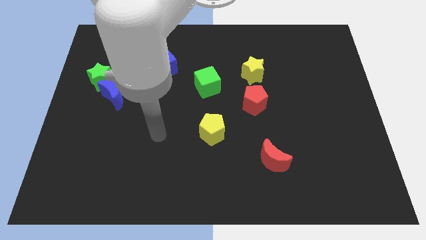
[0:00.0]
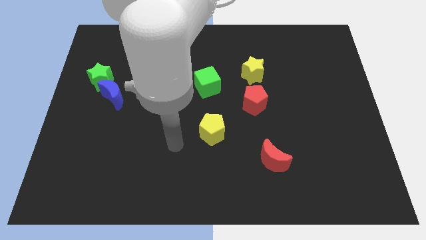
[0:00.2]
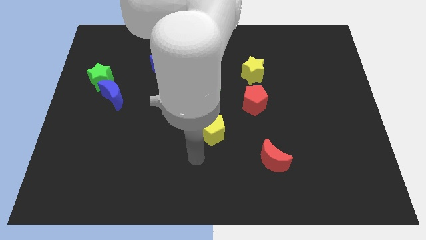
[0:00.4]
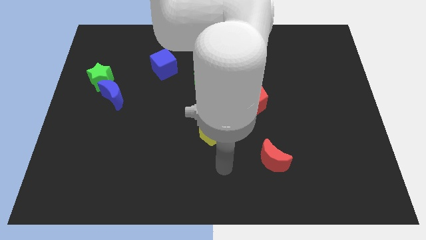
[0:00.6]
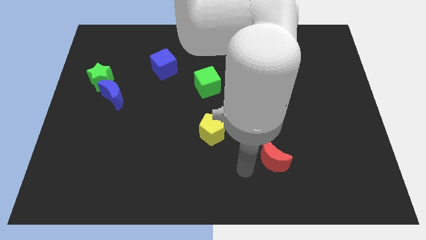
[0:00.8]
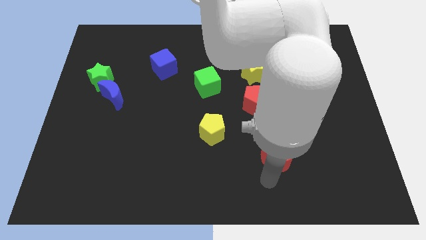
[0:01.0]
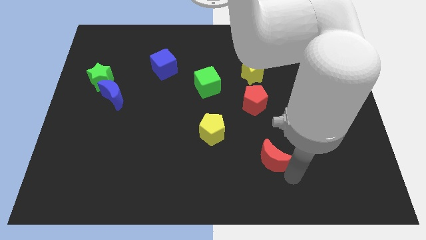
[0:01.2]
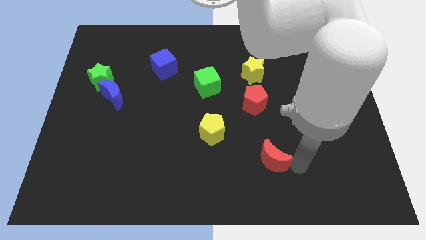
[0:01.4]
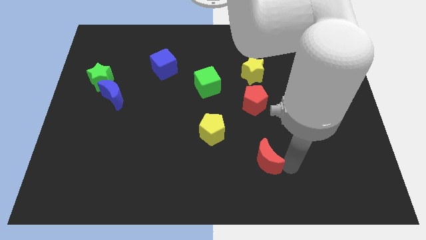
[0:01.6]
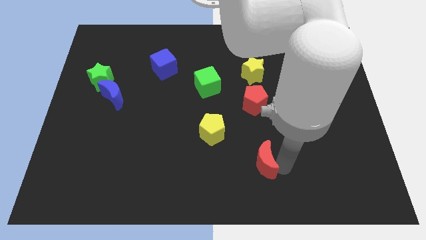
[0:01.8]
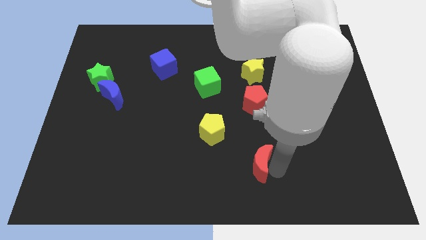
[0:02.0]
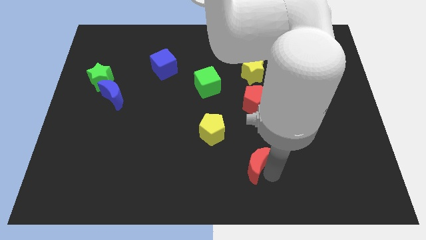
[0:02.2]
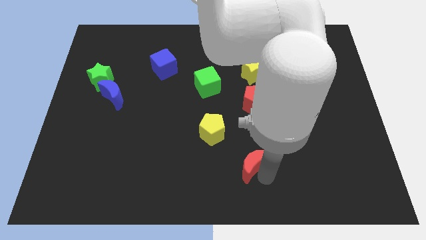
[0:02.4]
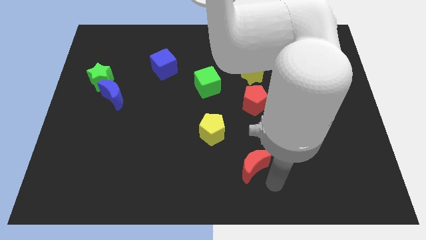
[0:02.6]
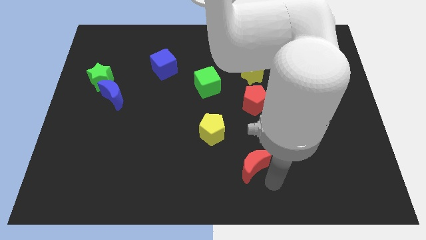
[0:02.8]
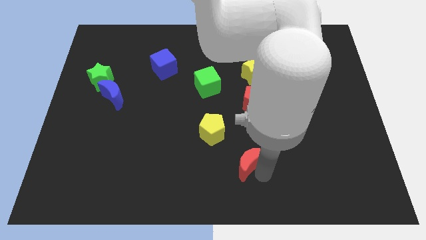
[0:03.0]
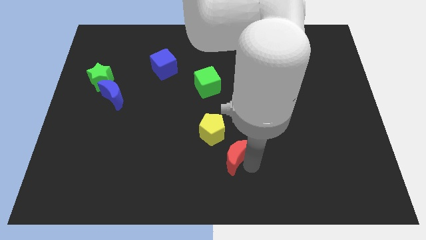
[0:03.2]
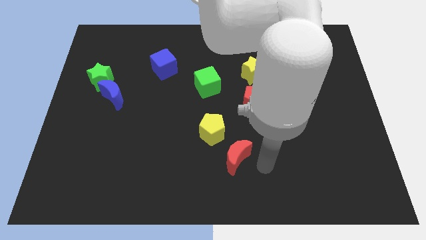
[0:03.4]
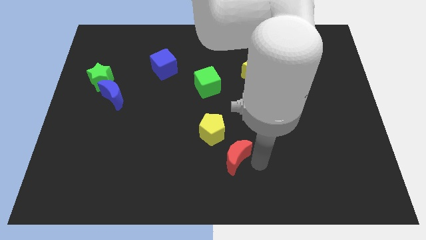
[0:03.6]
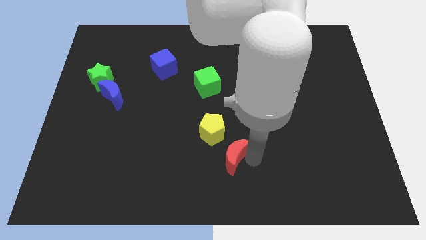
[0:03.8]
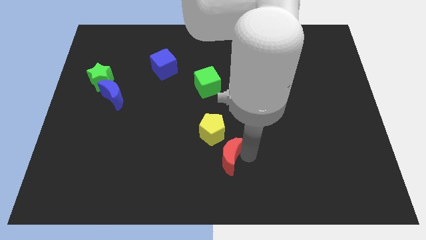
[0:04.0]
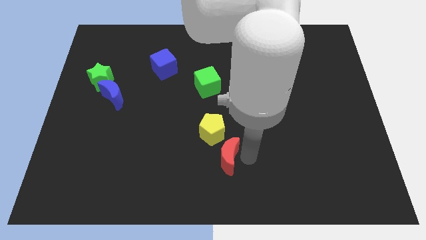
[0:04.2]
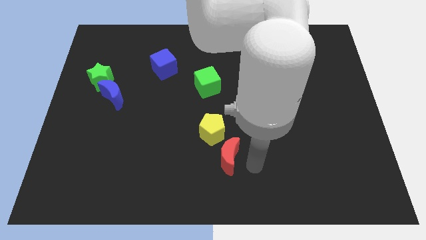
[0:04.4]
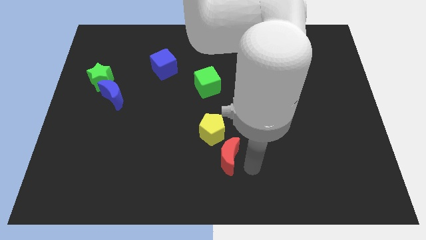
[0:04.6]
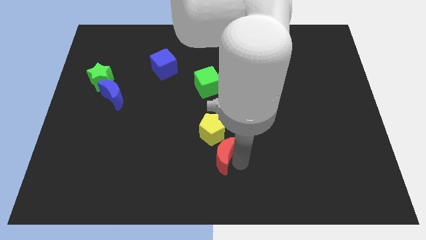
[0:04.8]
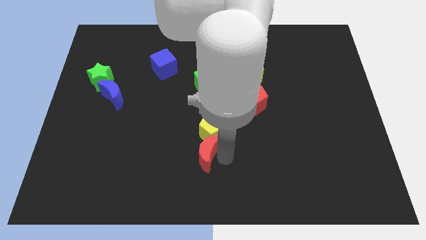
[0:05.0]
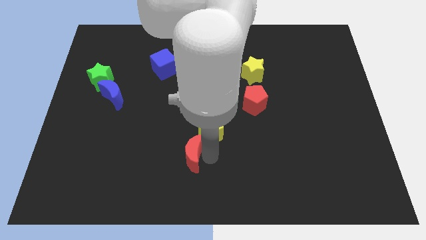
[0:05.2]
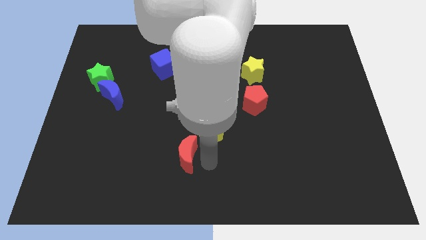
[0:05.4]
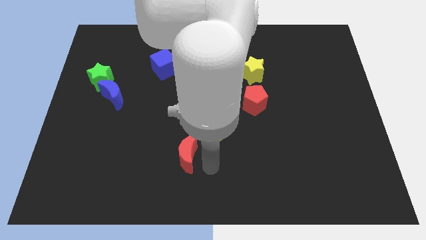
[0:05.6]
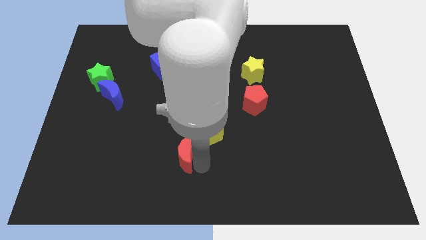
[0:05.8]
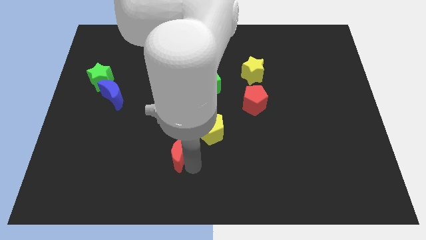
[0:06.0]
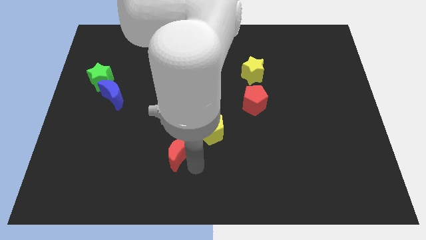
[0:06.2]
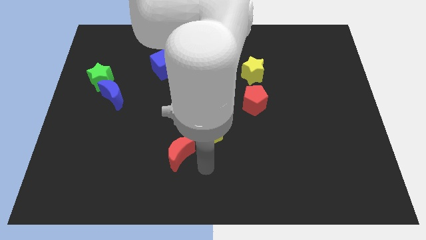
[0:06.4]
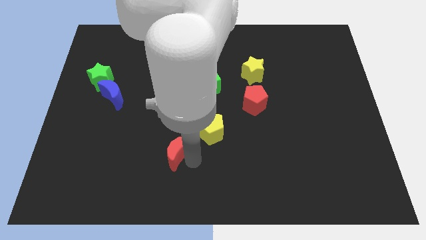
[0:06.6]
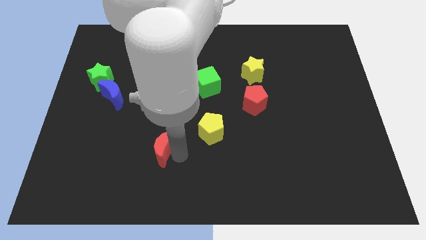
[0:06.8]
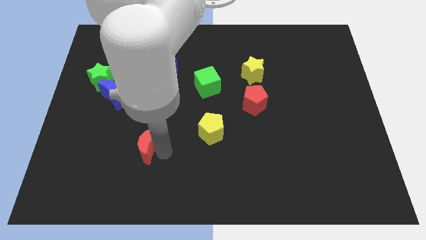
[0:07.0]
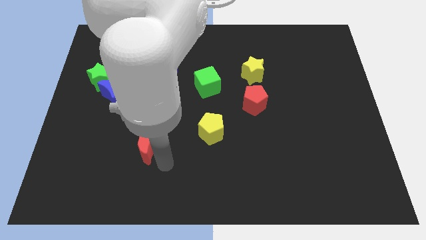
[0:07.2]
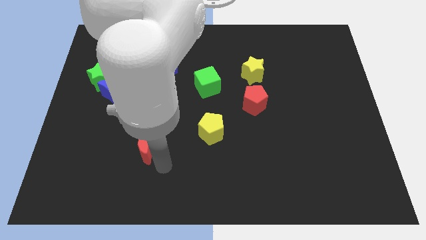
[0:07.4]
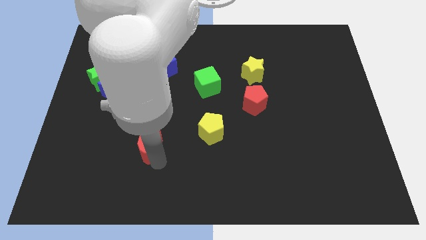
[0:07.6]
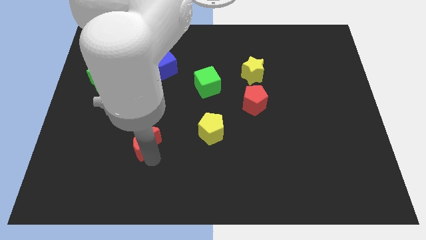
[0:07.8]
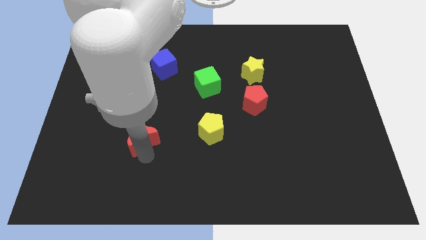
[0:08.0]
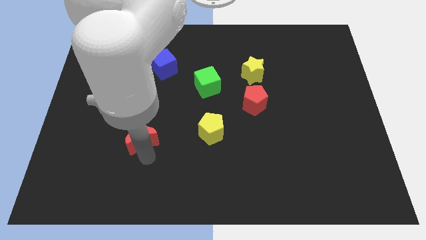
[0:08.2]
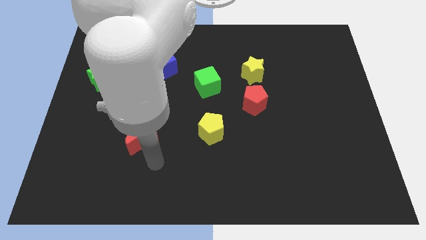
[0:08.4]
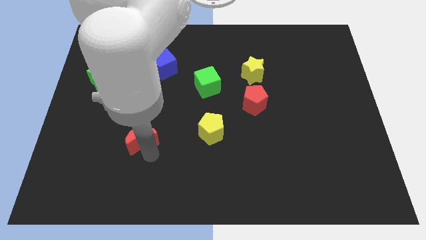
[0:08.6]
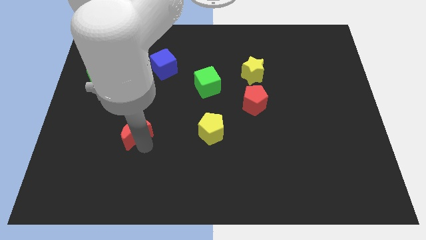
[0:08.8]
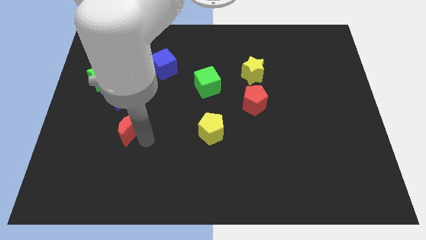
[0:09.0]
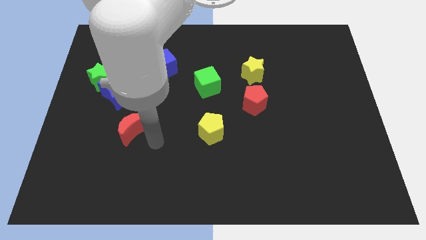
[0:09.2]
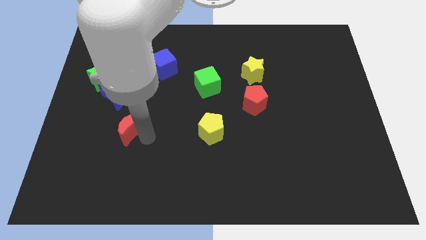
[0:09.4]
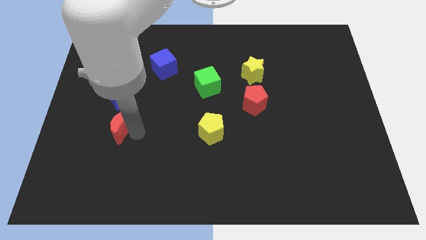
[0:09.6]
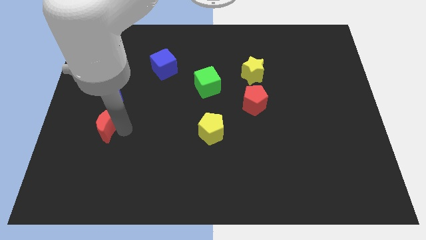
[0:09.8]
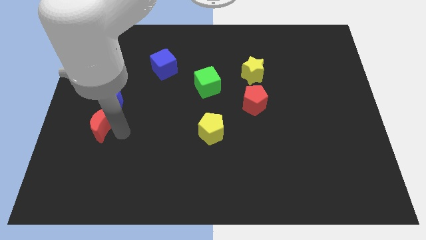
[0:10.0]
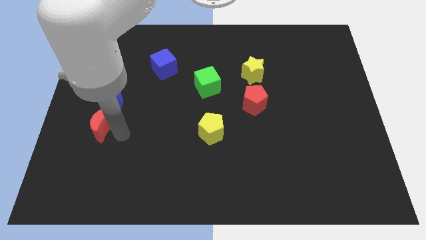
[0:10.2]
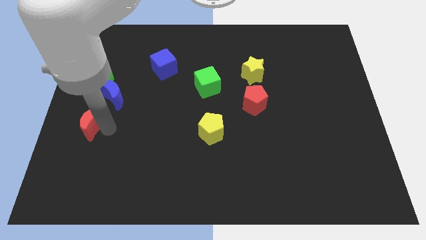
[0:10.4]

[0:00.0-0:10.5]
push the red moon to the left side of the board
